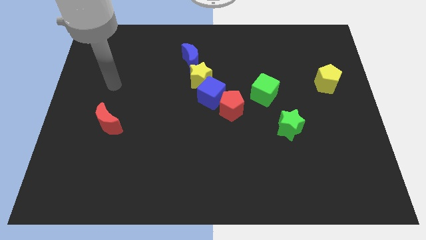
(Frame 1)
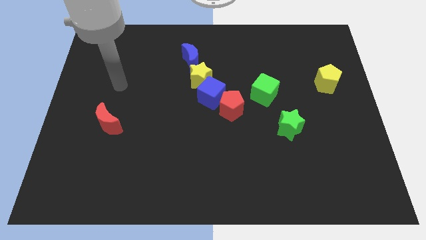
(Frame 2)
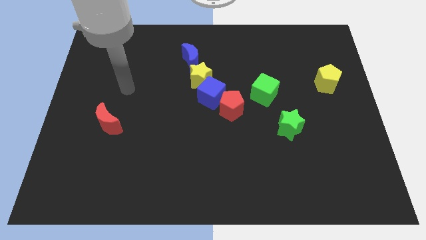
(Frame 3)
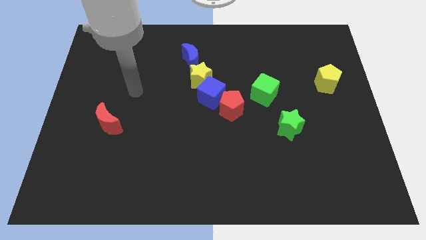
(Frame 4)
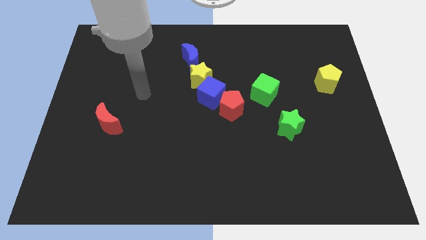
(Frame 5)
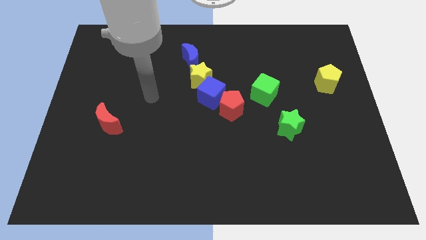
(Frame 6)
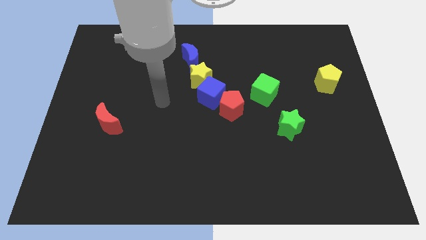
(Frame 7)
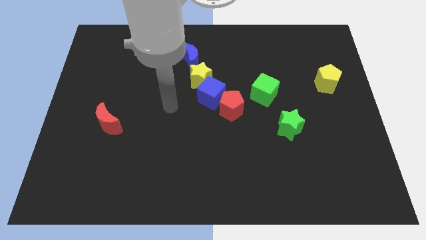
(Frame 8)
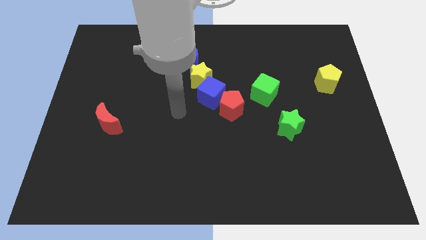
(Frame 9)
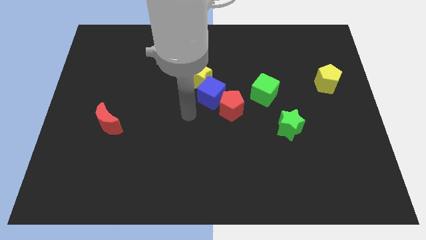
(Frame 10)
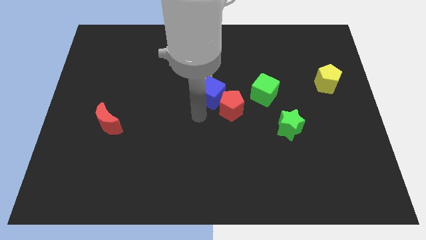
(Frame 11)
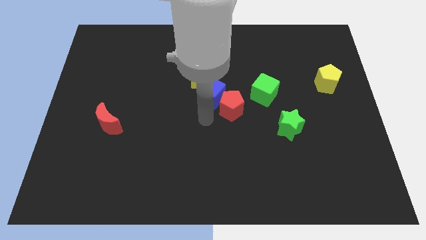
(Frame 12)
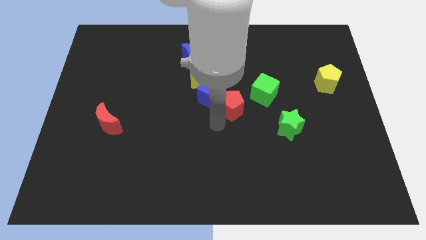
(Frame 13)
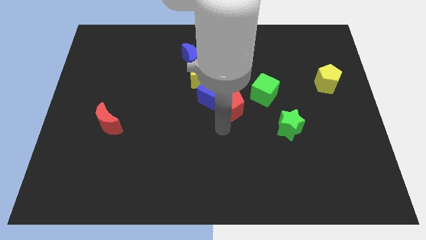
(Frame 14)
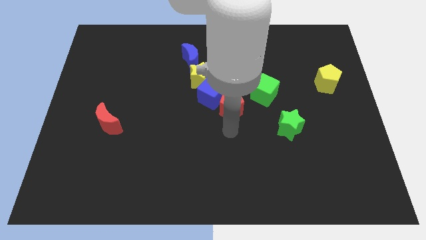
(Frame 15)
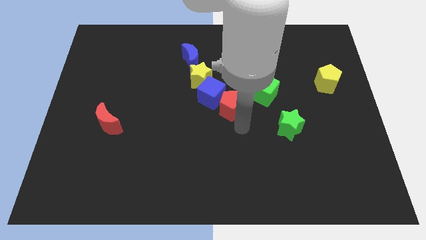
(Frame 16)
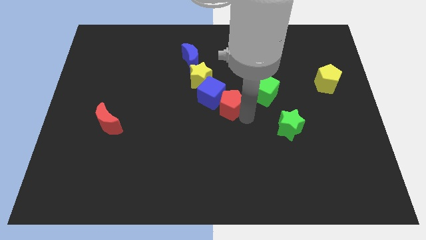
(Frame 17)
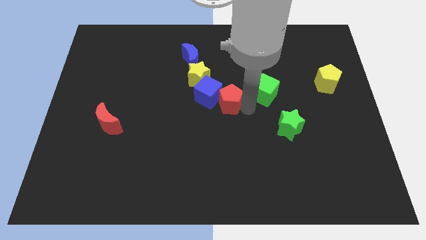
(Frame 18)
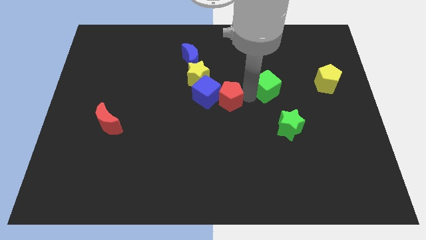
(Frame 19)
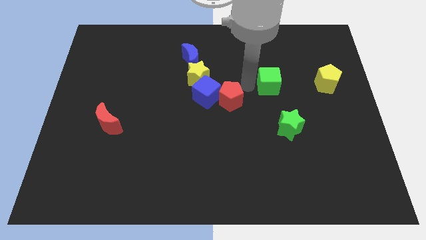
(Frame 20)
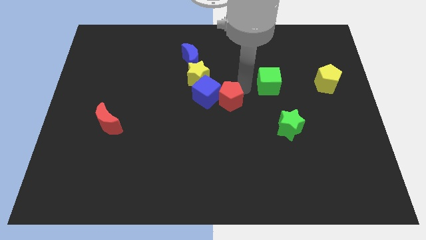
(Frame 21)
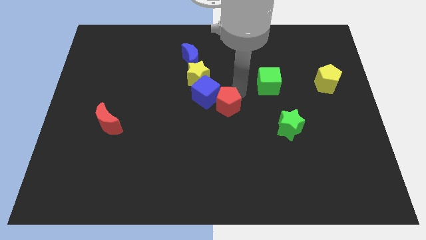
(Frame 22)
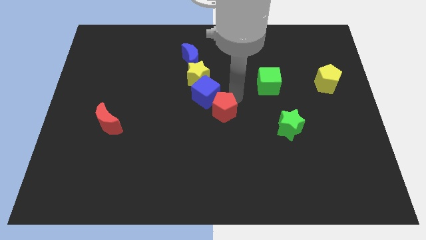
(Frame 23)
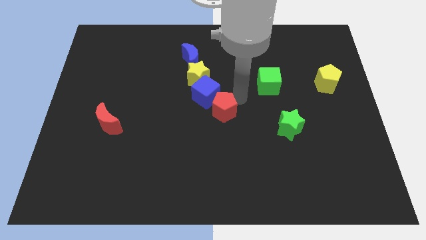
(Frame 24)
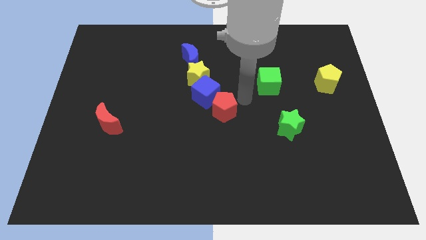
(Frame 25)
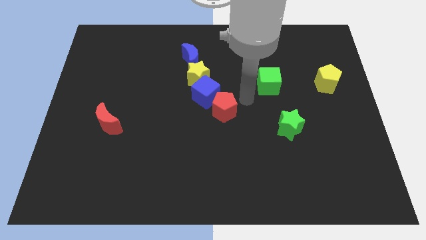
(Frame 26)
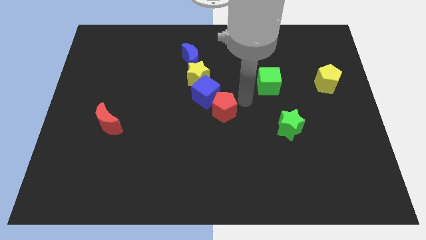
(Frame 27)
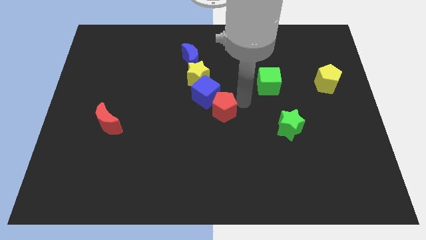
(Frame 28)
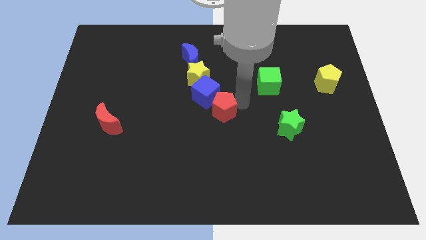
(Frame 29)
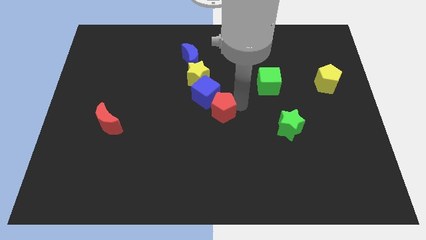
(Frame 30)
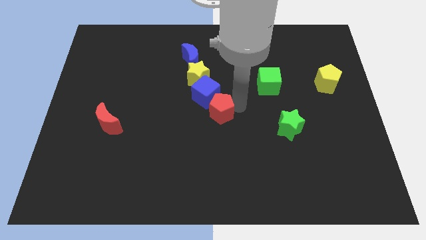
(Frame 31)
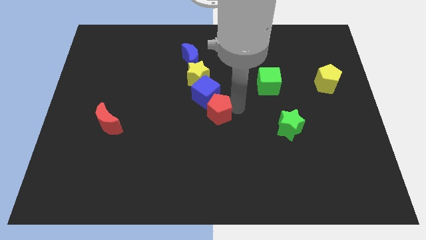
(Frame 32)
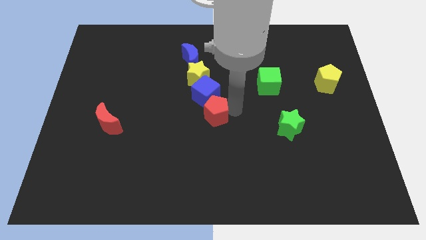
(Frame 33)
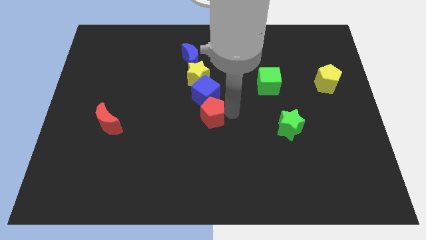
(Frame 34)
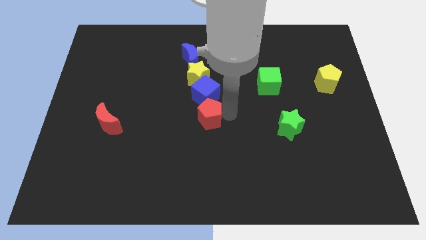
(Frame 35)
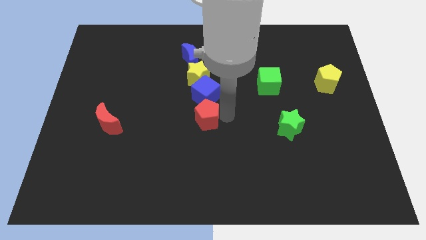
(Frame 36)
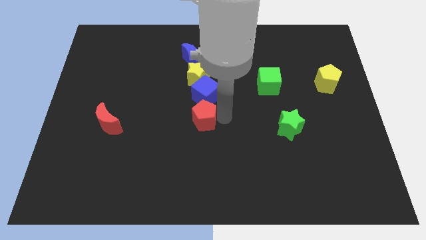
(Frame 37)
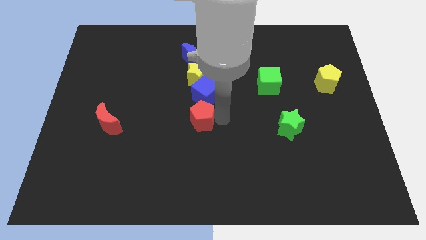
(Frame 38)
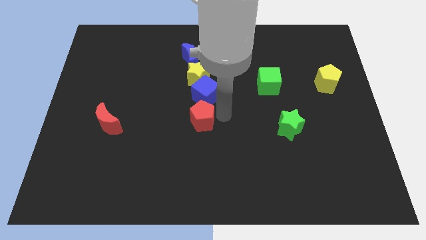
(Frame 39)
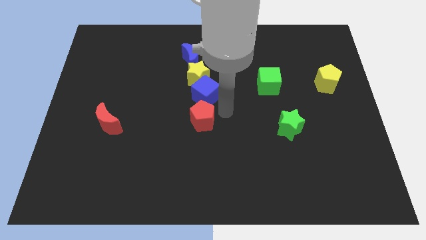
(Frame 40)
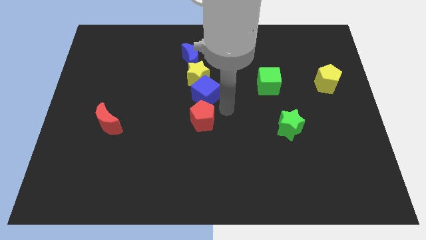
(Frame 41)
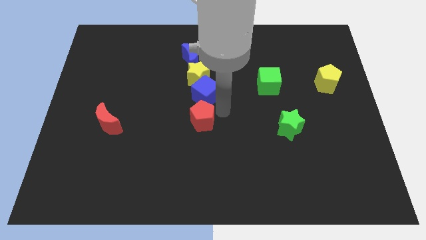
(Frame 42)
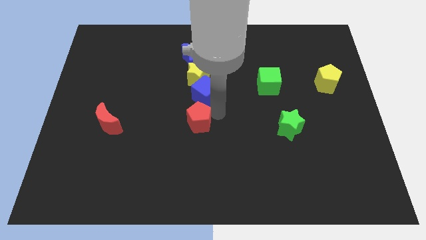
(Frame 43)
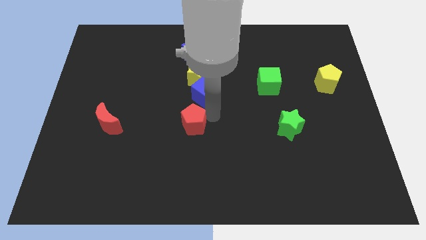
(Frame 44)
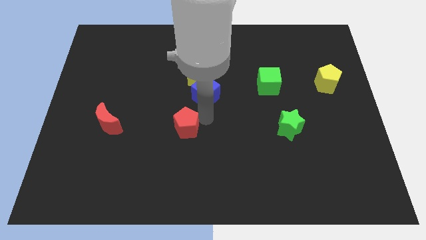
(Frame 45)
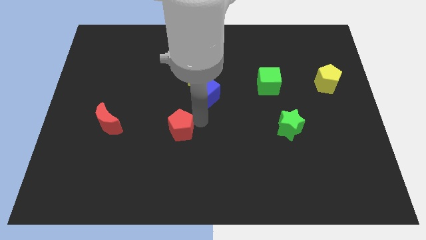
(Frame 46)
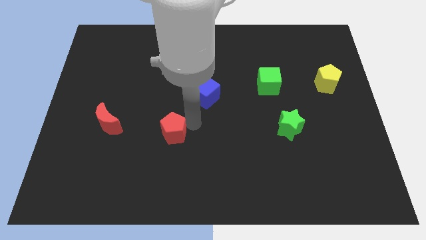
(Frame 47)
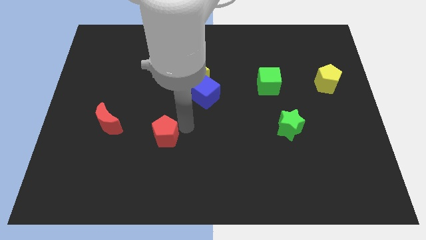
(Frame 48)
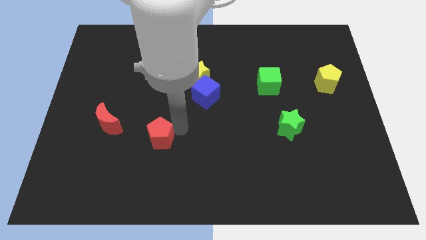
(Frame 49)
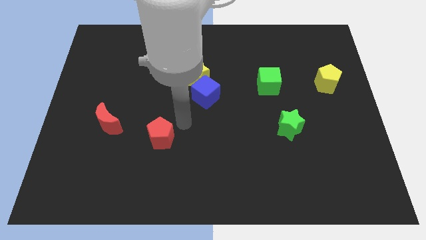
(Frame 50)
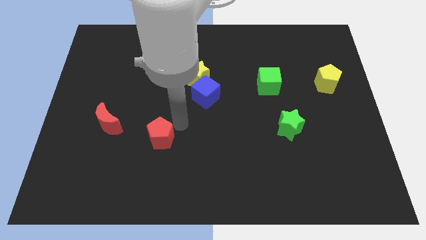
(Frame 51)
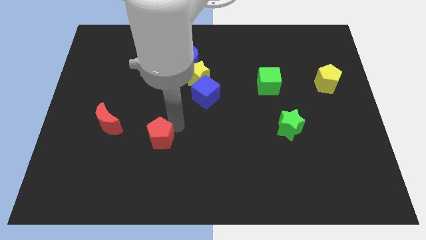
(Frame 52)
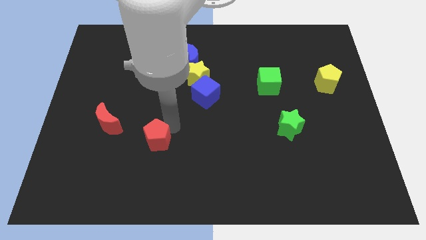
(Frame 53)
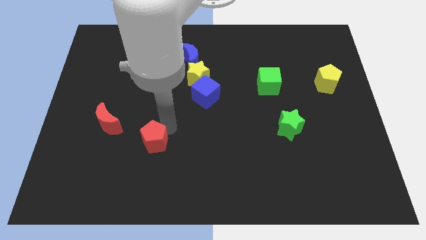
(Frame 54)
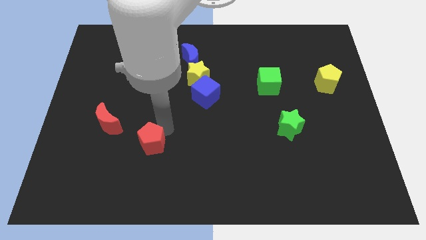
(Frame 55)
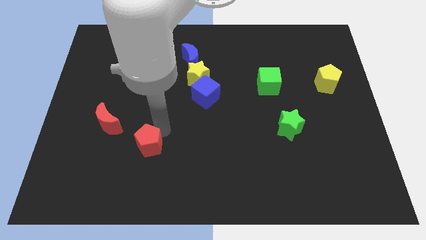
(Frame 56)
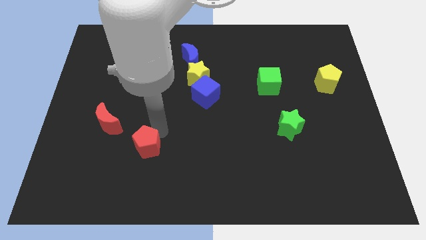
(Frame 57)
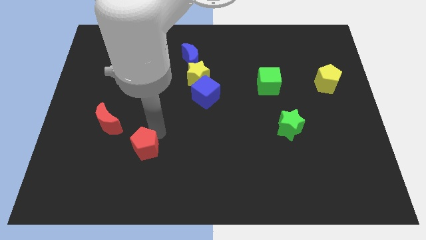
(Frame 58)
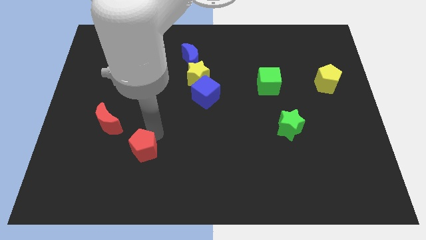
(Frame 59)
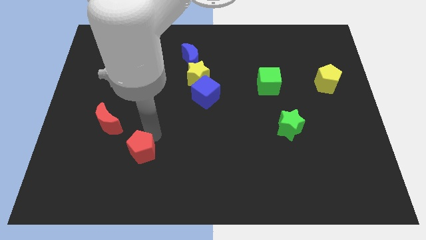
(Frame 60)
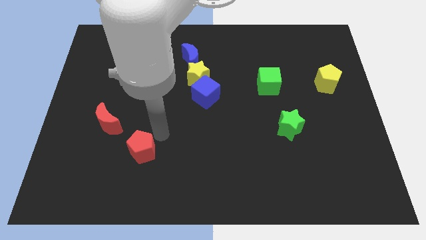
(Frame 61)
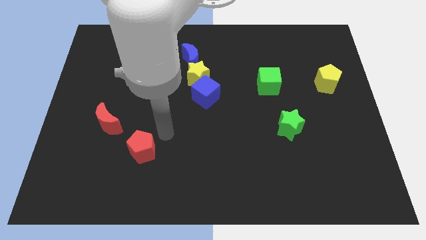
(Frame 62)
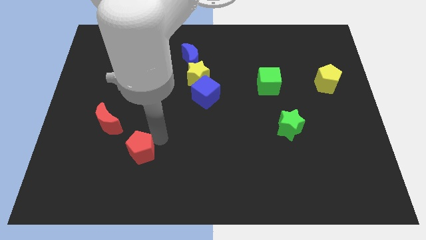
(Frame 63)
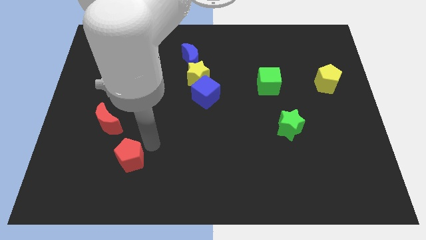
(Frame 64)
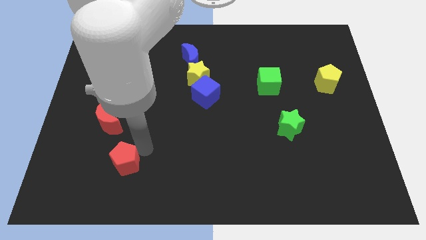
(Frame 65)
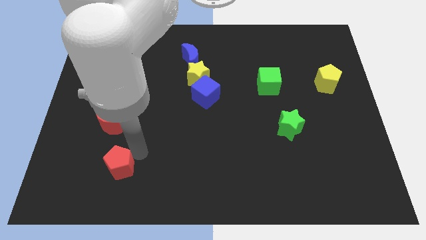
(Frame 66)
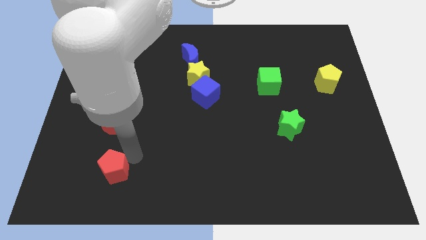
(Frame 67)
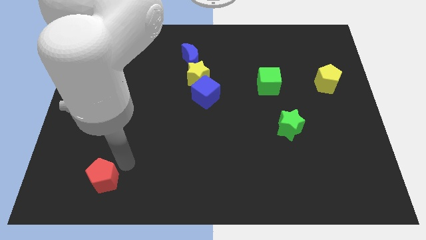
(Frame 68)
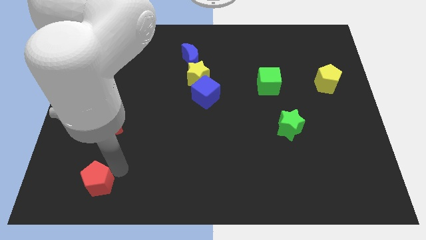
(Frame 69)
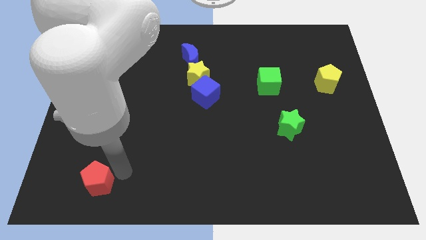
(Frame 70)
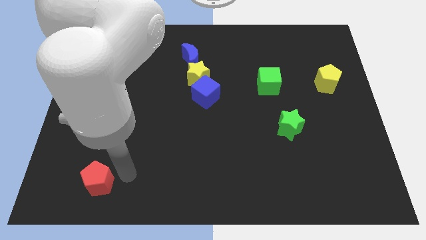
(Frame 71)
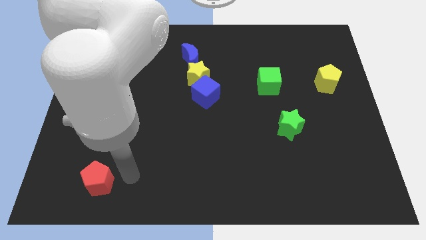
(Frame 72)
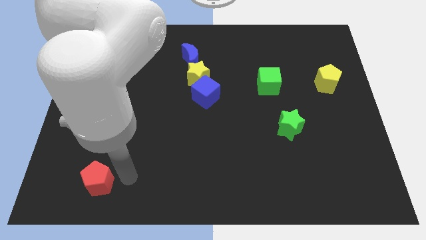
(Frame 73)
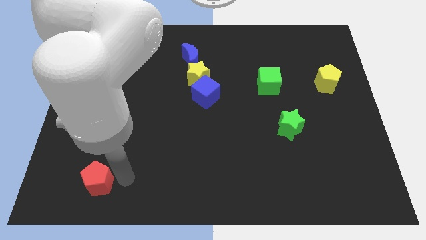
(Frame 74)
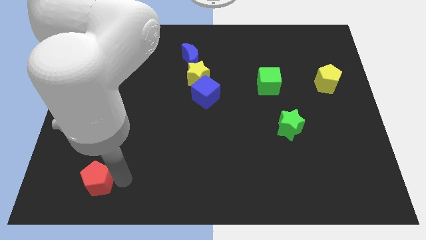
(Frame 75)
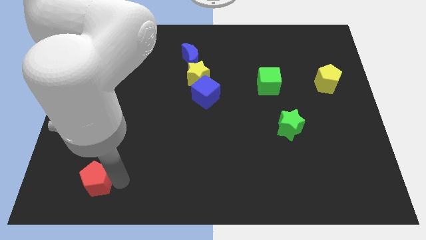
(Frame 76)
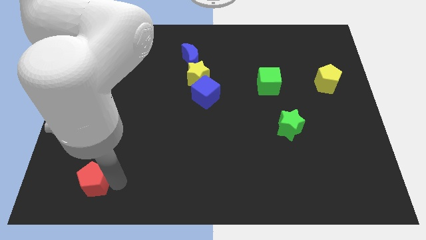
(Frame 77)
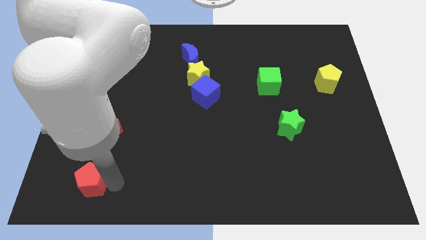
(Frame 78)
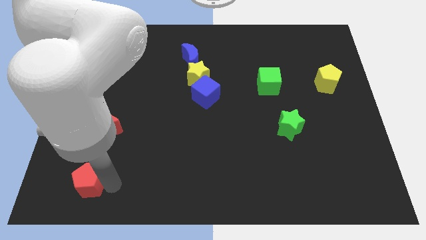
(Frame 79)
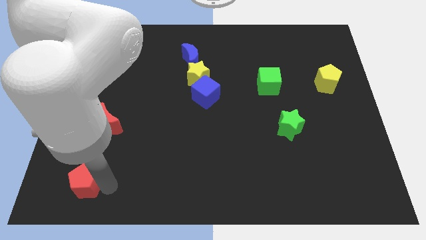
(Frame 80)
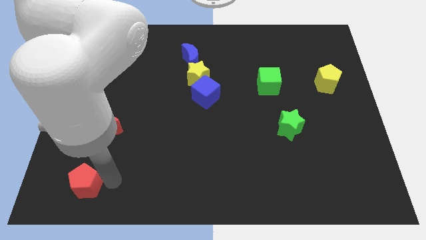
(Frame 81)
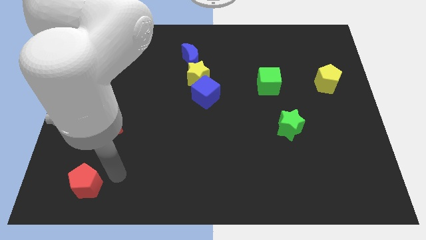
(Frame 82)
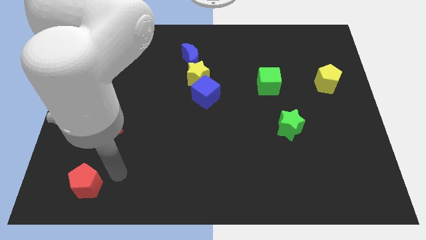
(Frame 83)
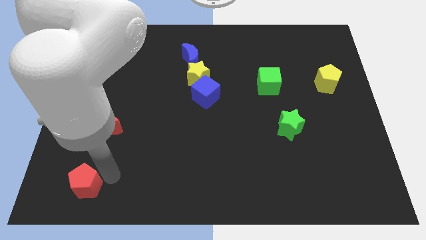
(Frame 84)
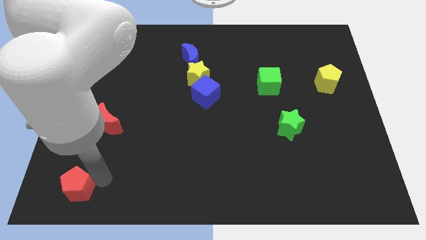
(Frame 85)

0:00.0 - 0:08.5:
move the red pentagon to the bottom left
